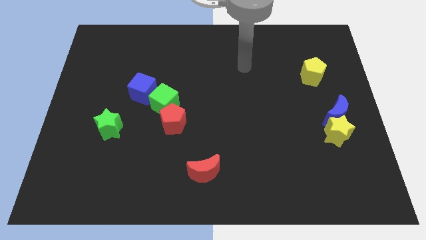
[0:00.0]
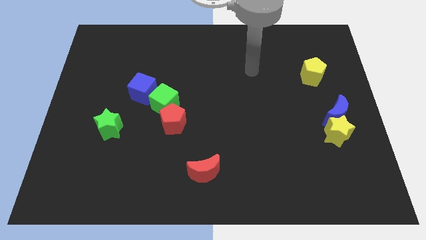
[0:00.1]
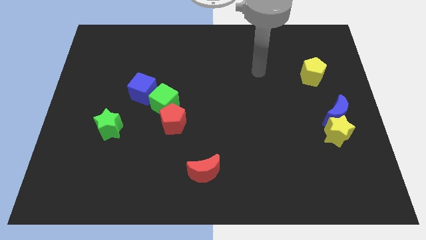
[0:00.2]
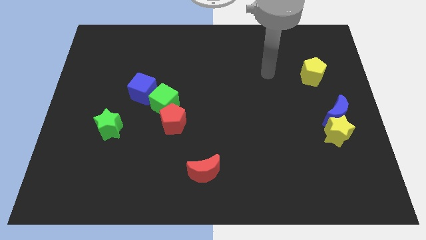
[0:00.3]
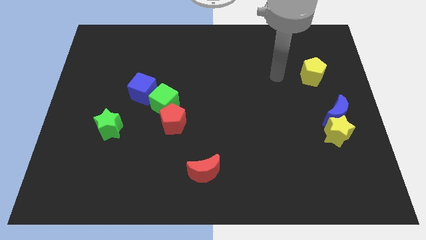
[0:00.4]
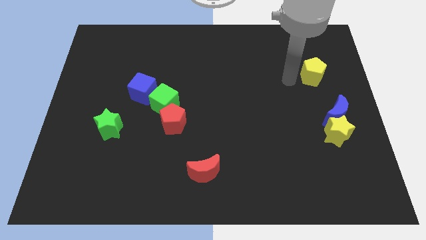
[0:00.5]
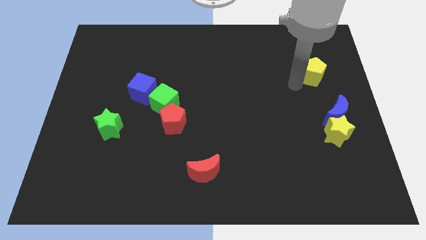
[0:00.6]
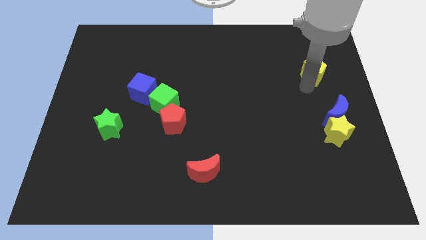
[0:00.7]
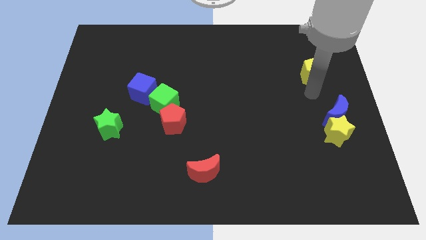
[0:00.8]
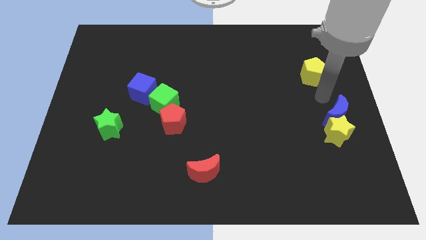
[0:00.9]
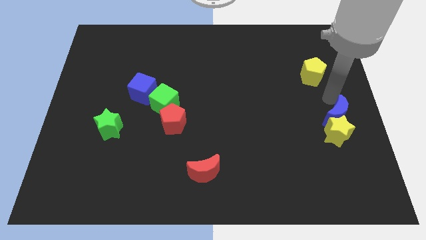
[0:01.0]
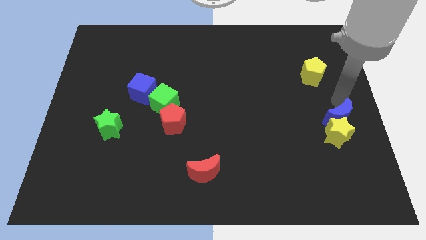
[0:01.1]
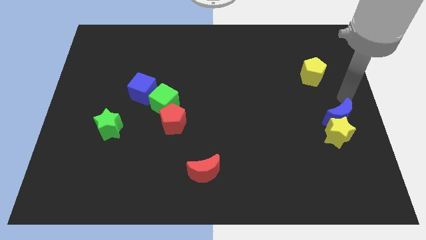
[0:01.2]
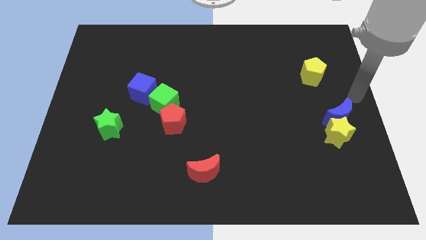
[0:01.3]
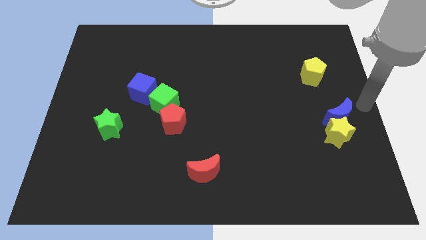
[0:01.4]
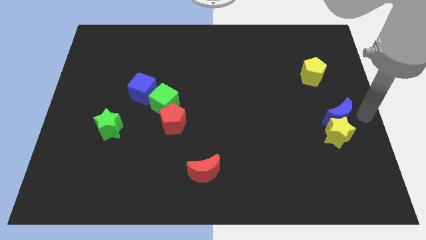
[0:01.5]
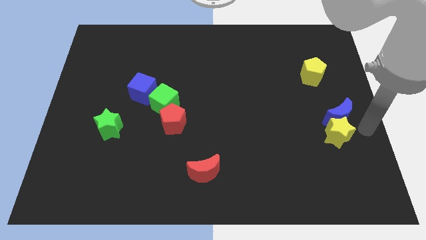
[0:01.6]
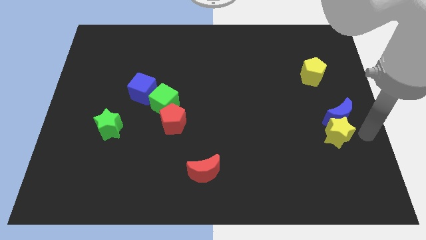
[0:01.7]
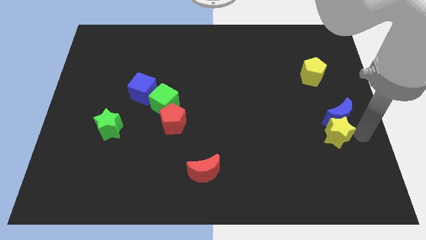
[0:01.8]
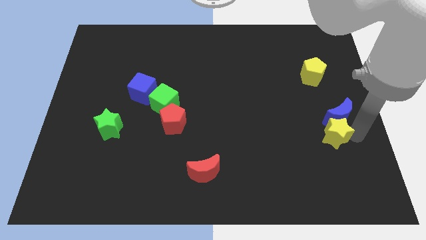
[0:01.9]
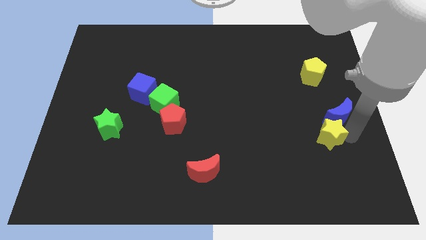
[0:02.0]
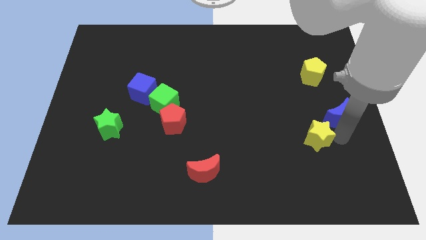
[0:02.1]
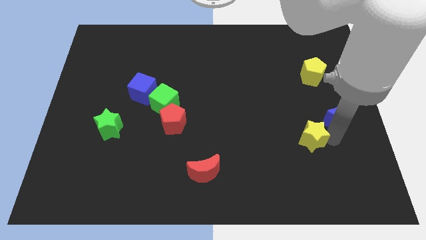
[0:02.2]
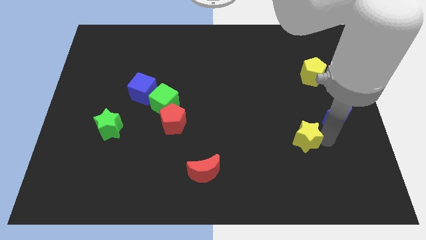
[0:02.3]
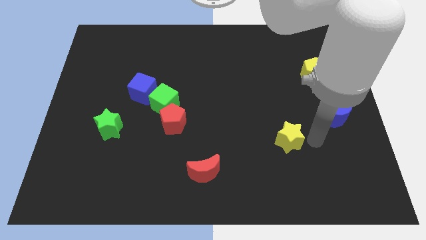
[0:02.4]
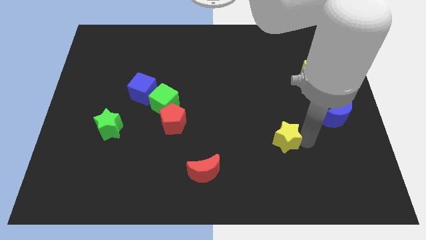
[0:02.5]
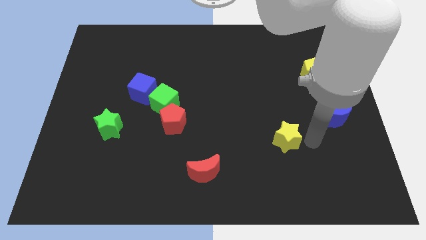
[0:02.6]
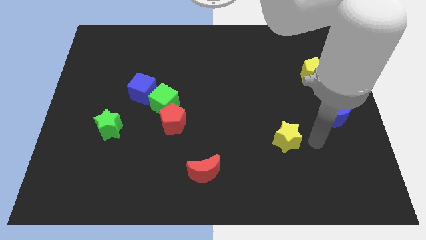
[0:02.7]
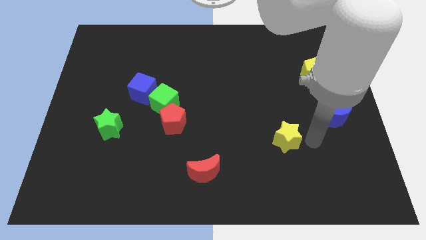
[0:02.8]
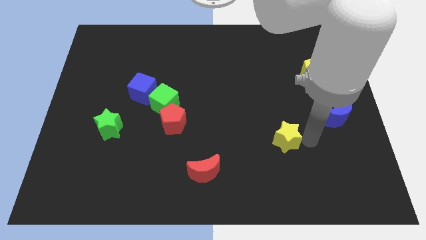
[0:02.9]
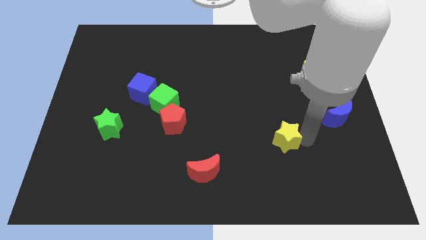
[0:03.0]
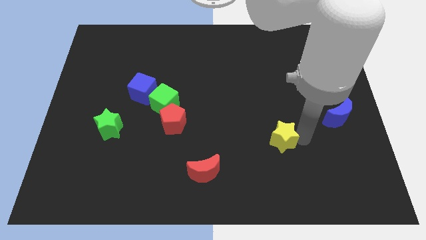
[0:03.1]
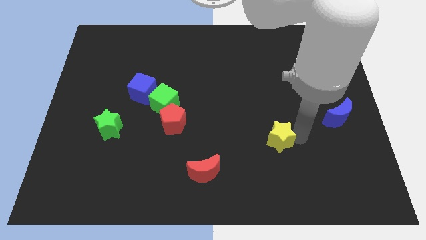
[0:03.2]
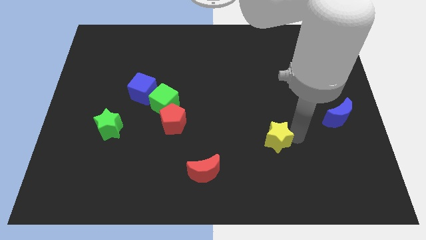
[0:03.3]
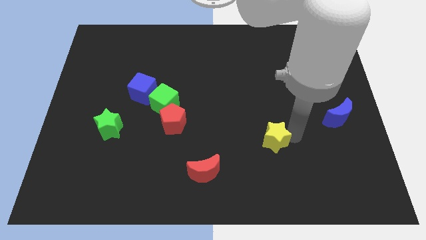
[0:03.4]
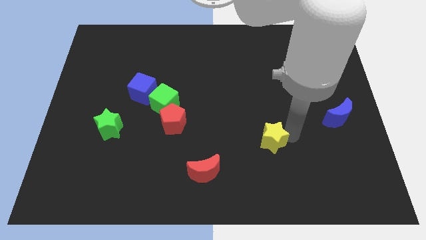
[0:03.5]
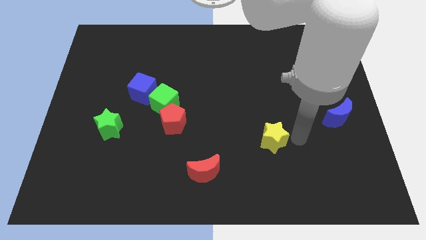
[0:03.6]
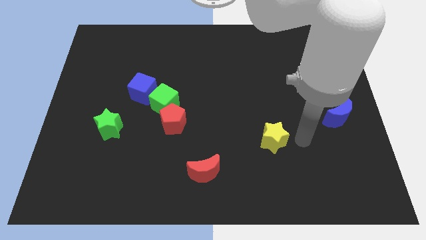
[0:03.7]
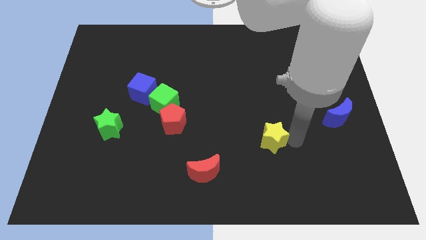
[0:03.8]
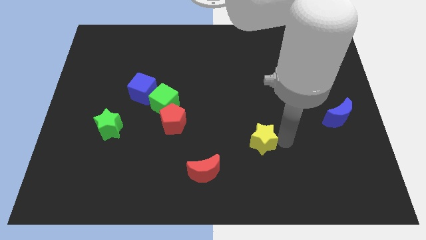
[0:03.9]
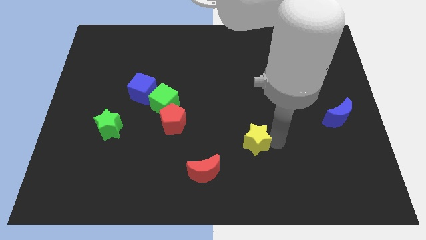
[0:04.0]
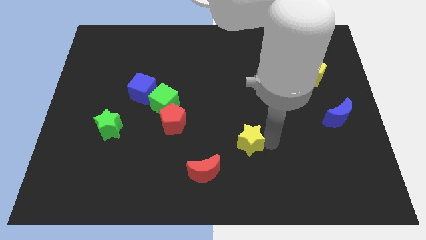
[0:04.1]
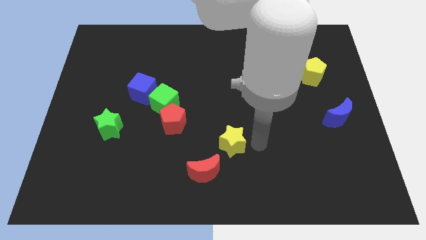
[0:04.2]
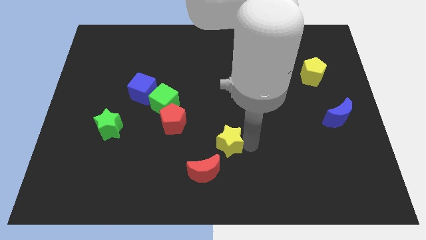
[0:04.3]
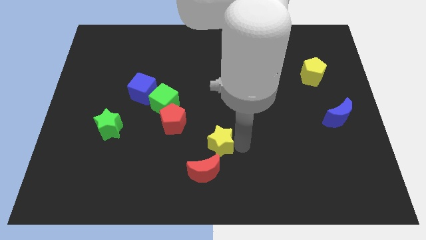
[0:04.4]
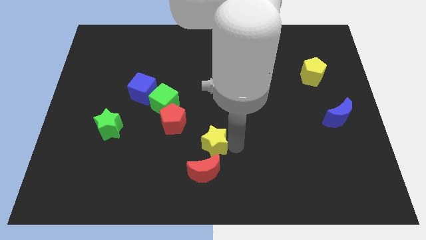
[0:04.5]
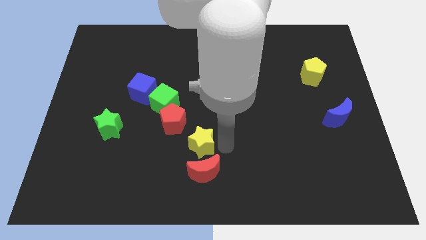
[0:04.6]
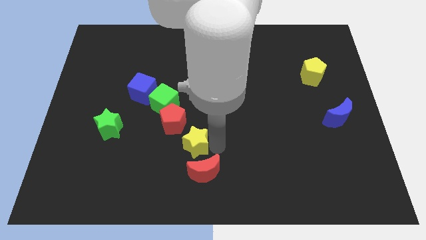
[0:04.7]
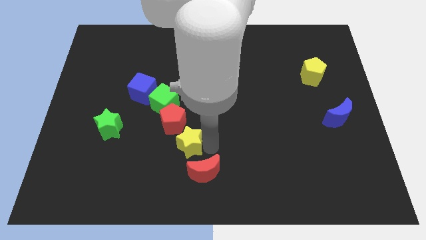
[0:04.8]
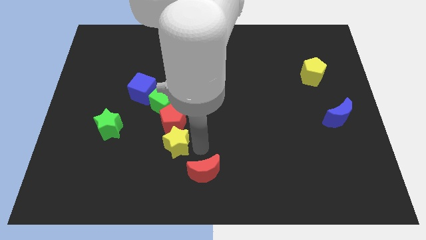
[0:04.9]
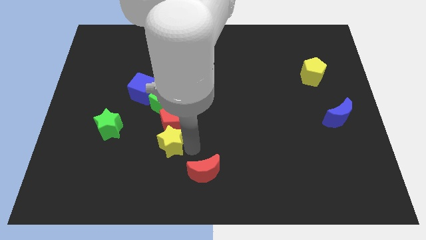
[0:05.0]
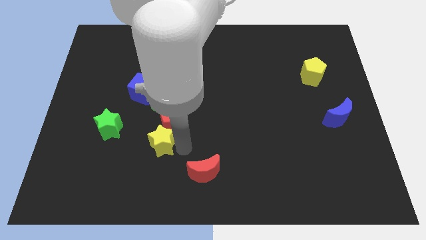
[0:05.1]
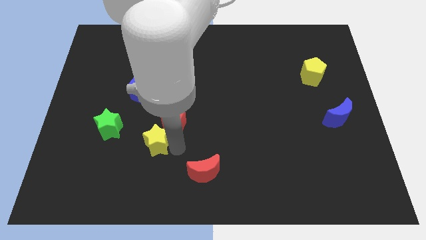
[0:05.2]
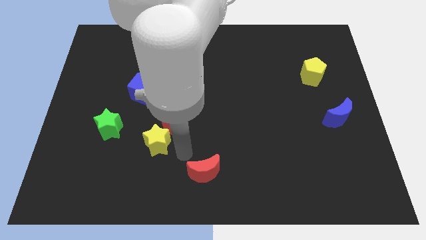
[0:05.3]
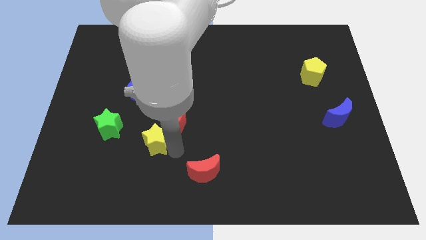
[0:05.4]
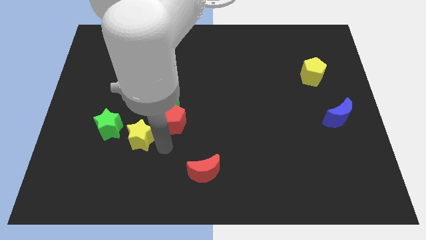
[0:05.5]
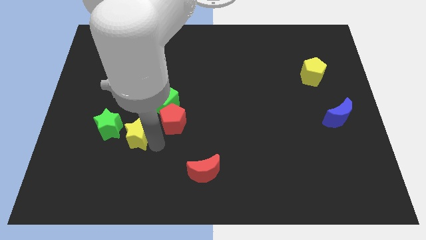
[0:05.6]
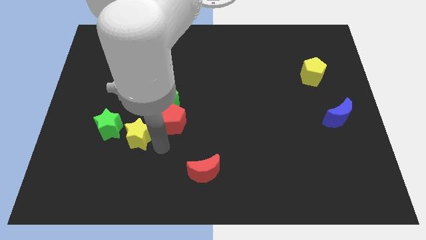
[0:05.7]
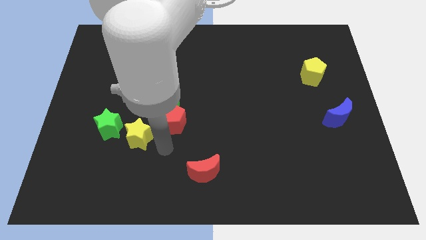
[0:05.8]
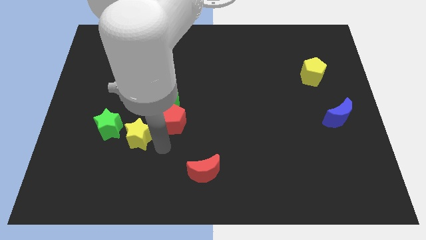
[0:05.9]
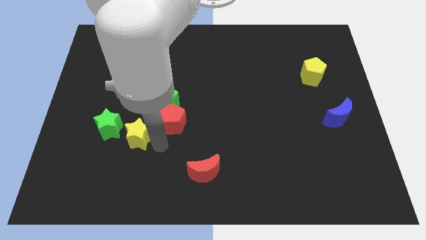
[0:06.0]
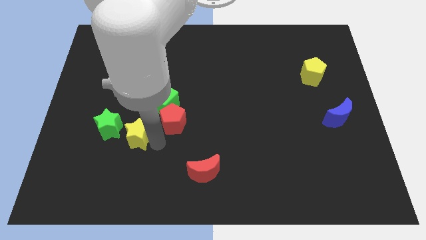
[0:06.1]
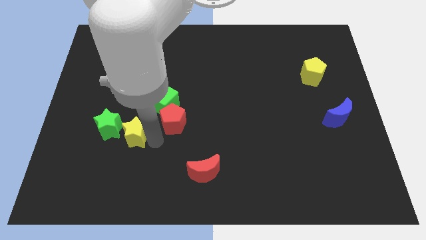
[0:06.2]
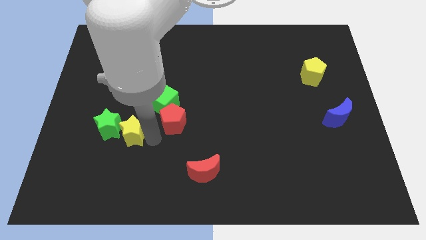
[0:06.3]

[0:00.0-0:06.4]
push the yellow star towards the green star

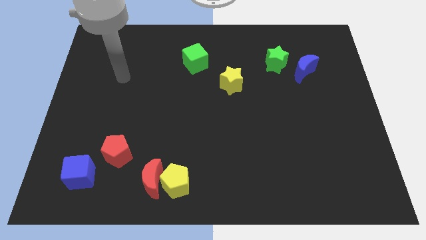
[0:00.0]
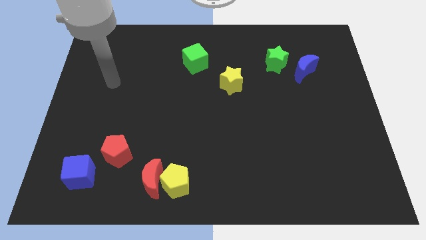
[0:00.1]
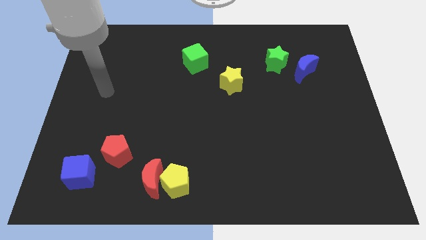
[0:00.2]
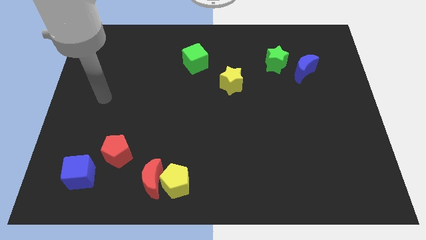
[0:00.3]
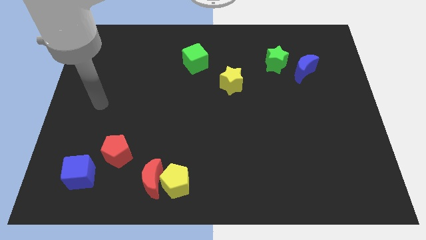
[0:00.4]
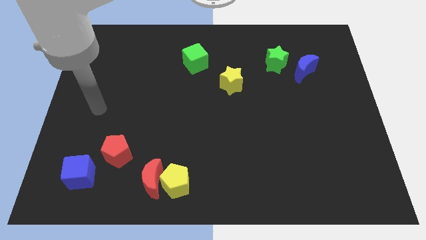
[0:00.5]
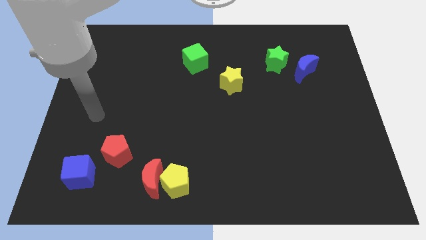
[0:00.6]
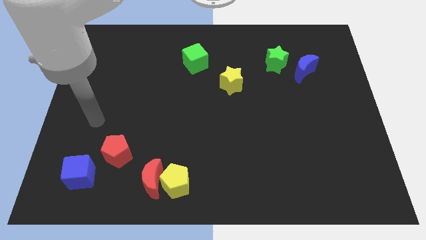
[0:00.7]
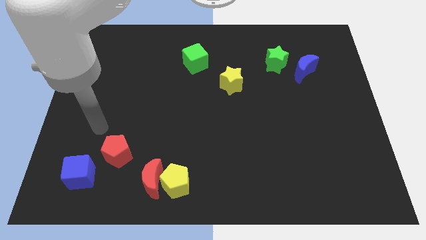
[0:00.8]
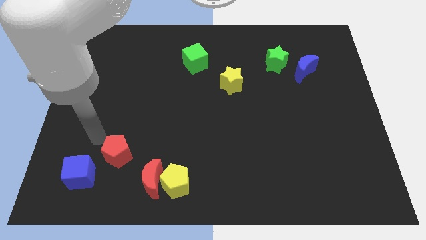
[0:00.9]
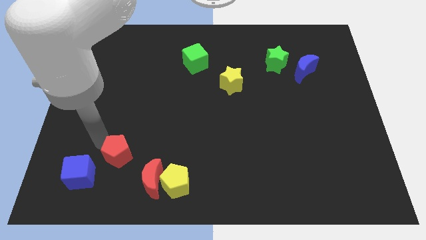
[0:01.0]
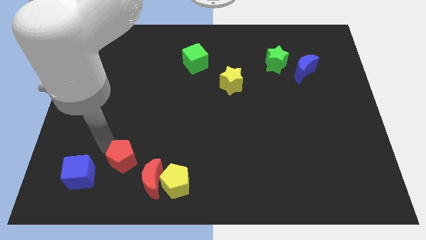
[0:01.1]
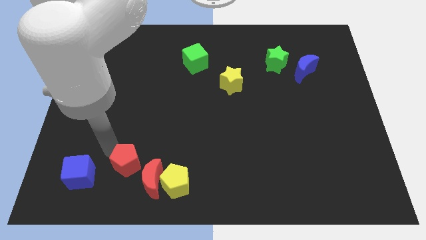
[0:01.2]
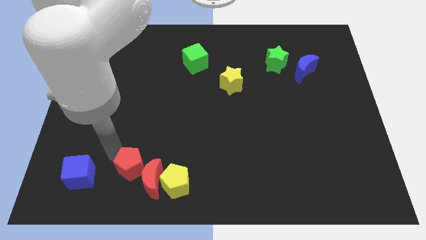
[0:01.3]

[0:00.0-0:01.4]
push the red pentagon towards the red moon
